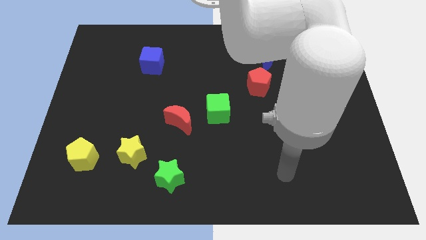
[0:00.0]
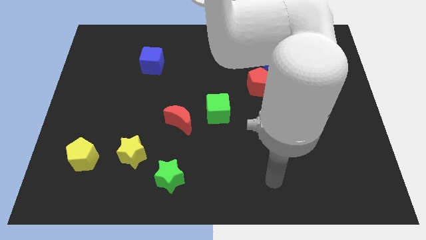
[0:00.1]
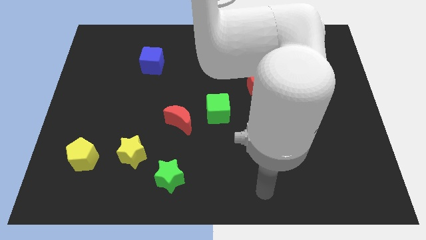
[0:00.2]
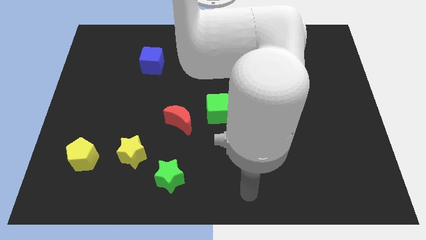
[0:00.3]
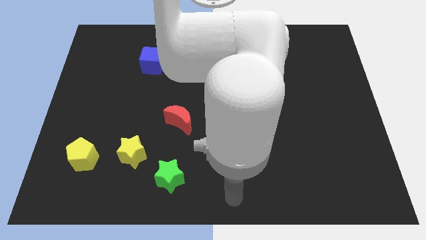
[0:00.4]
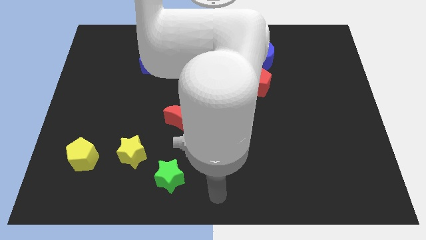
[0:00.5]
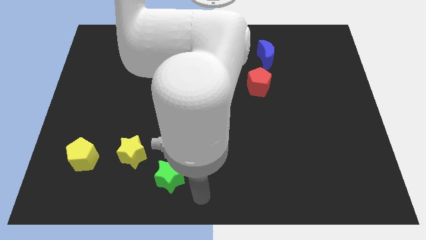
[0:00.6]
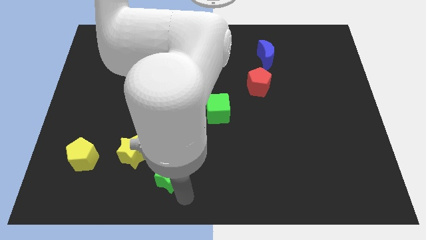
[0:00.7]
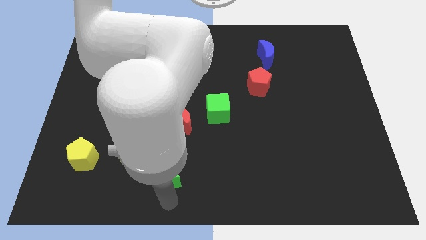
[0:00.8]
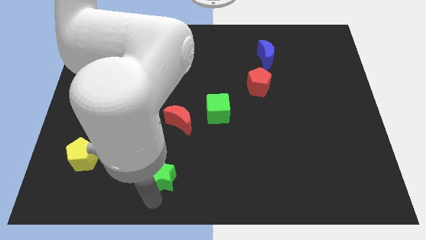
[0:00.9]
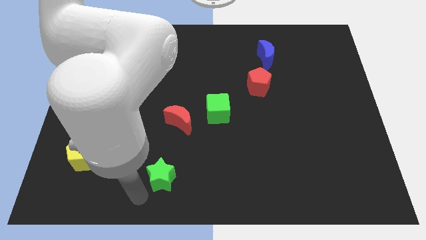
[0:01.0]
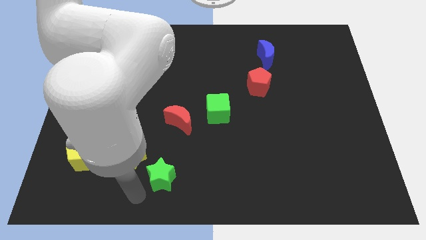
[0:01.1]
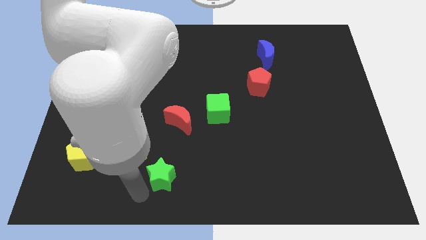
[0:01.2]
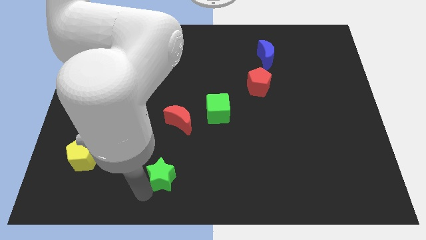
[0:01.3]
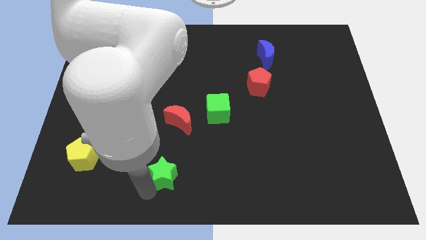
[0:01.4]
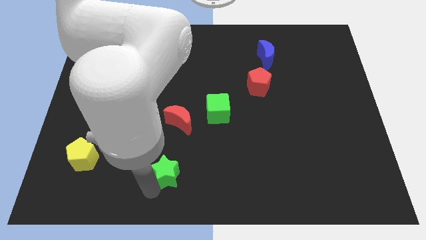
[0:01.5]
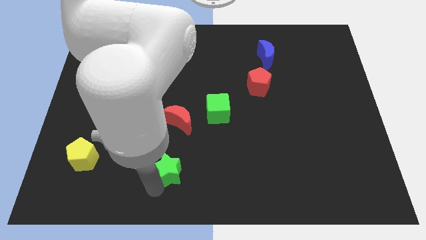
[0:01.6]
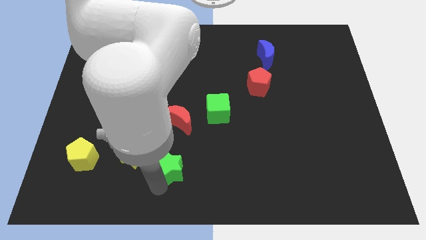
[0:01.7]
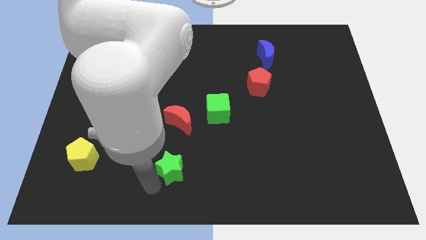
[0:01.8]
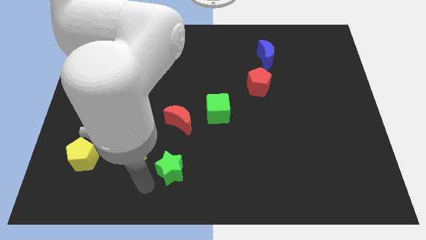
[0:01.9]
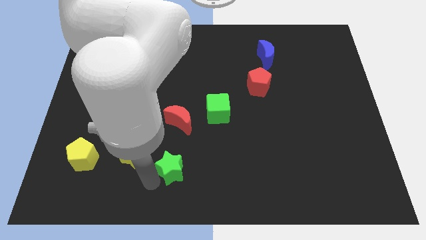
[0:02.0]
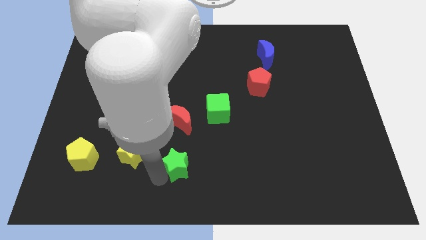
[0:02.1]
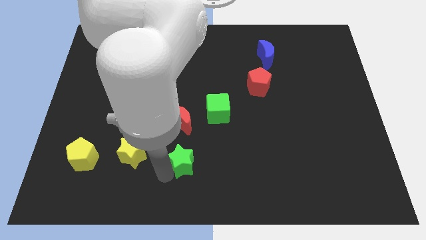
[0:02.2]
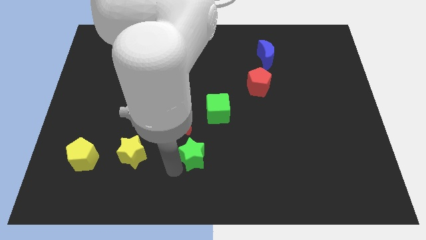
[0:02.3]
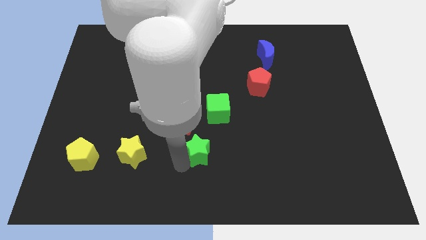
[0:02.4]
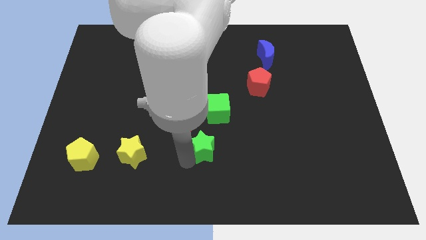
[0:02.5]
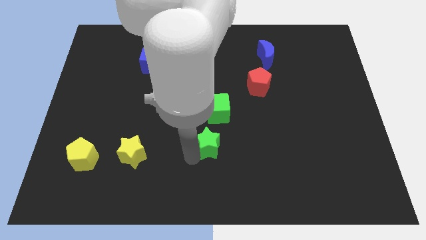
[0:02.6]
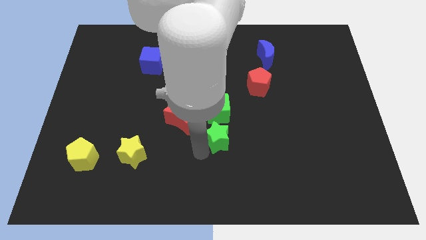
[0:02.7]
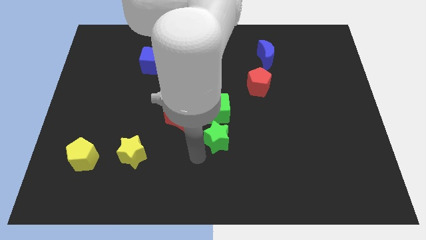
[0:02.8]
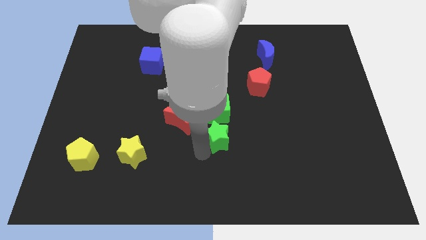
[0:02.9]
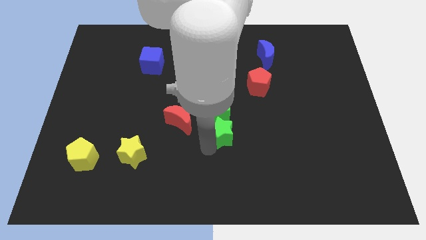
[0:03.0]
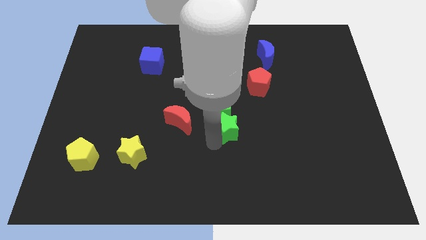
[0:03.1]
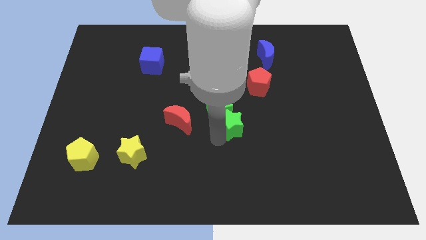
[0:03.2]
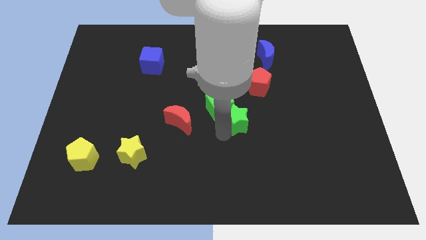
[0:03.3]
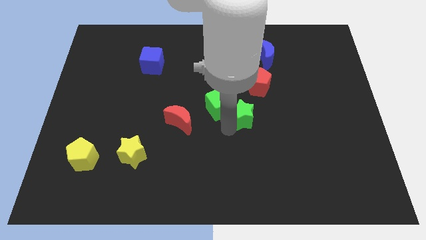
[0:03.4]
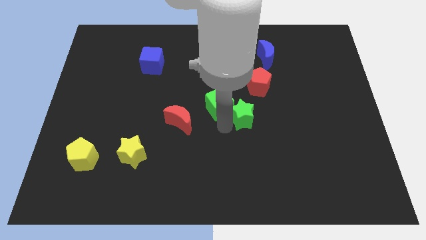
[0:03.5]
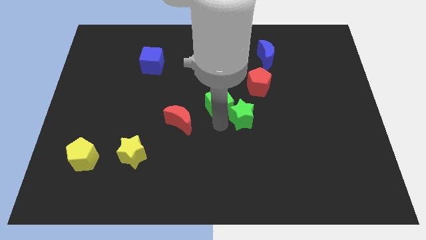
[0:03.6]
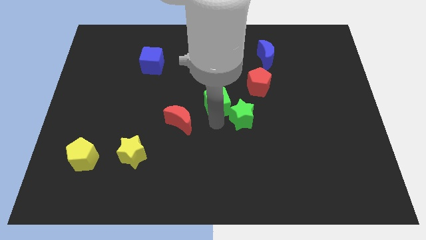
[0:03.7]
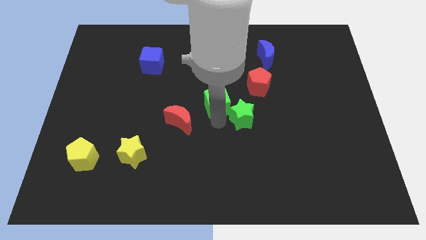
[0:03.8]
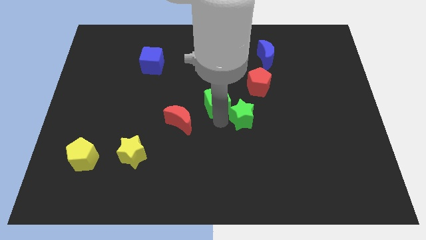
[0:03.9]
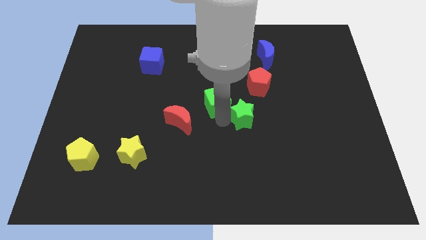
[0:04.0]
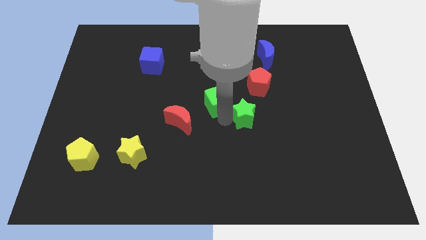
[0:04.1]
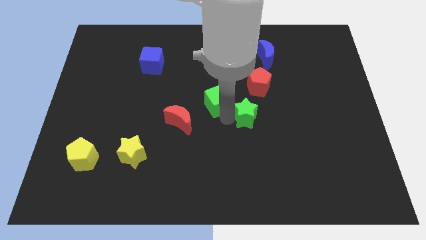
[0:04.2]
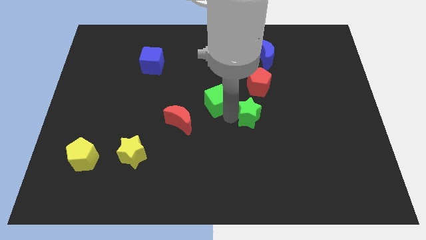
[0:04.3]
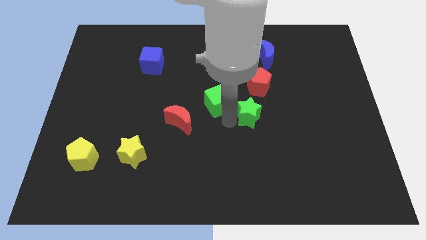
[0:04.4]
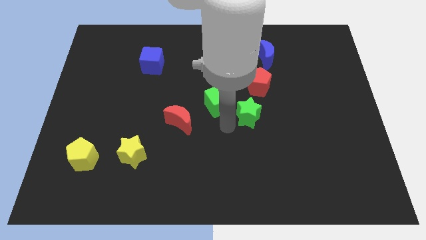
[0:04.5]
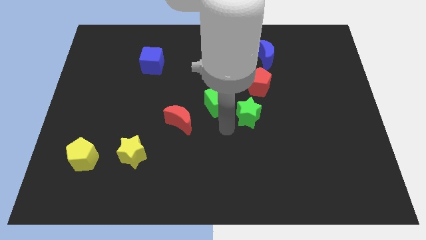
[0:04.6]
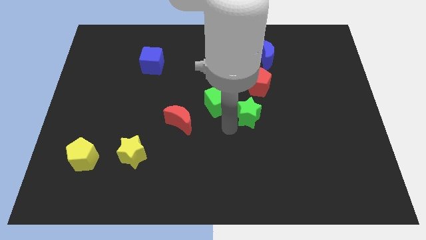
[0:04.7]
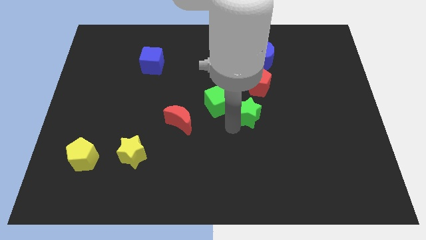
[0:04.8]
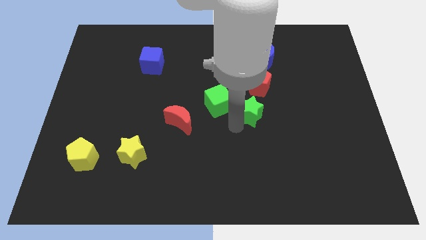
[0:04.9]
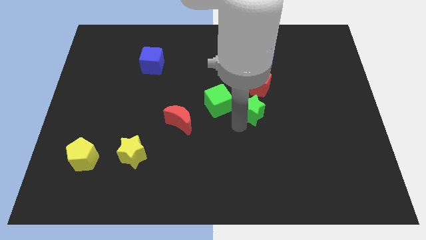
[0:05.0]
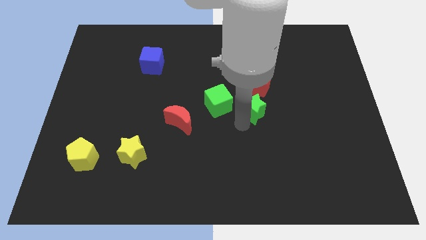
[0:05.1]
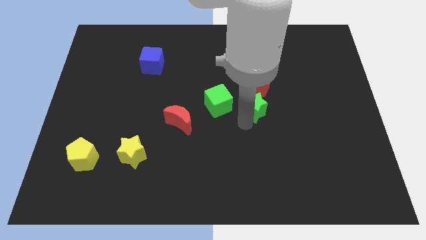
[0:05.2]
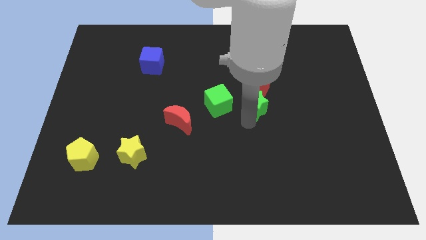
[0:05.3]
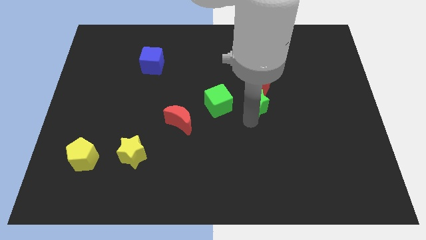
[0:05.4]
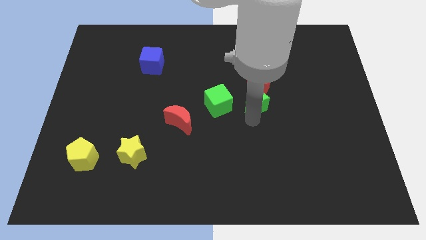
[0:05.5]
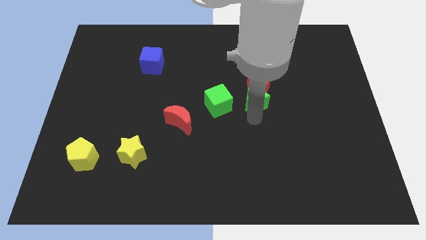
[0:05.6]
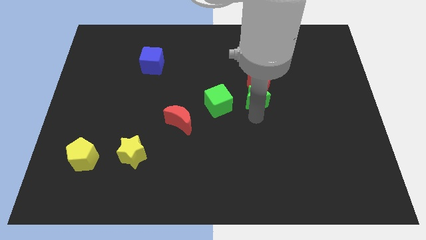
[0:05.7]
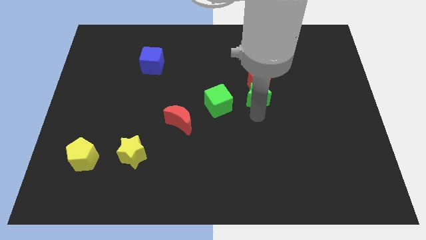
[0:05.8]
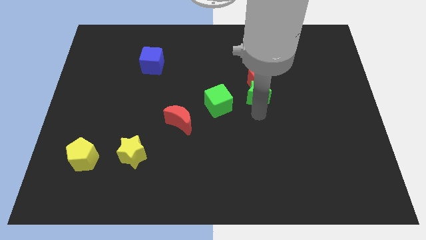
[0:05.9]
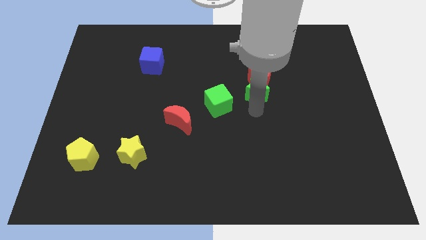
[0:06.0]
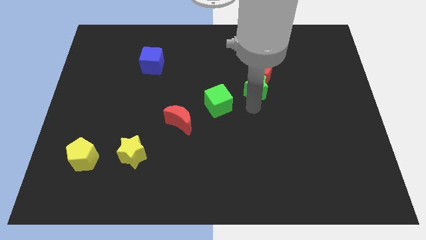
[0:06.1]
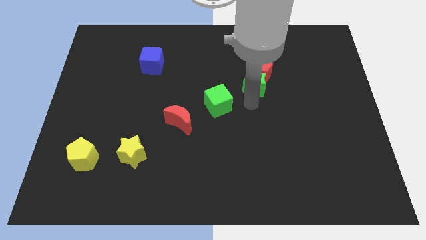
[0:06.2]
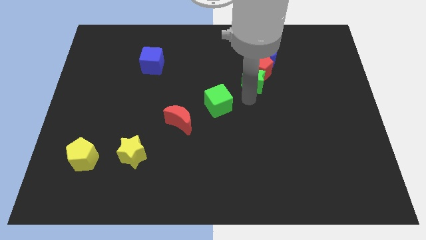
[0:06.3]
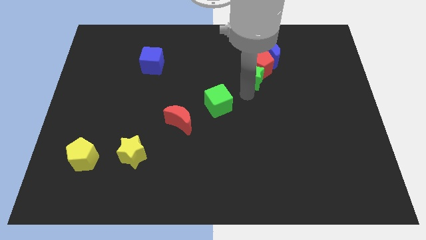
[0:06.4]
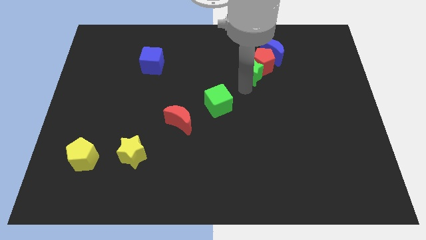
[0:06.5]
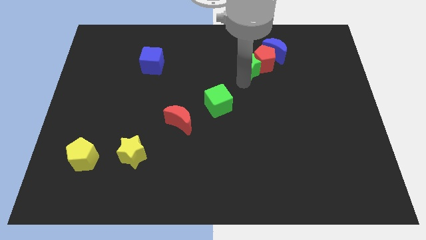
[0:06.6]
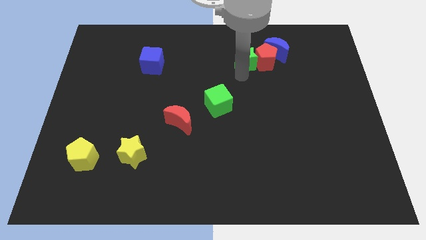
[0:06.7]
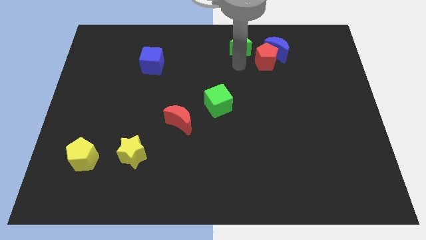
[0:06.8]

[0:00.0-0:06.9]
move the green star to the top

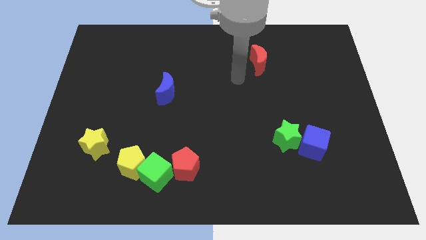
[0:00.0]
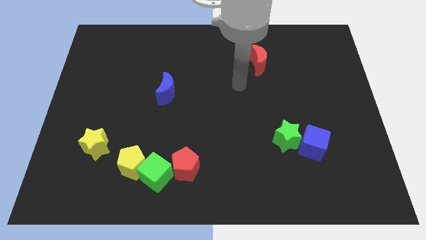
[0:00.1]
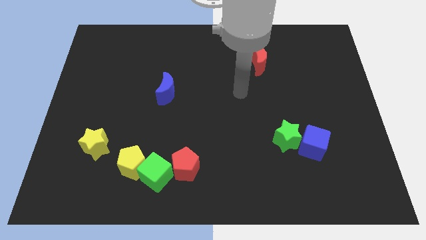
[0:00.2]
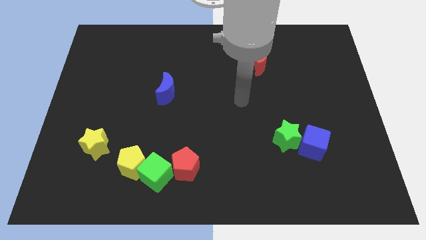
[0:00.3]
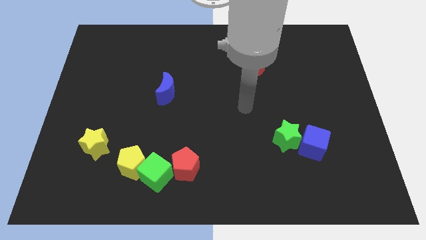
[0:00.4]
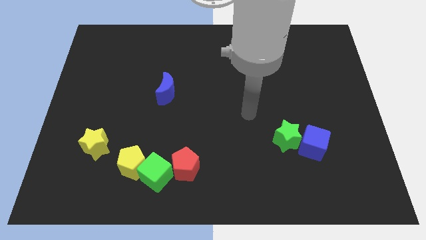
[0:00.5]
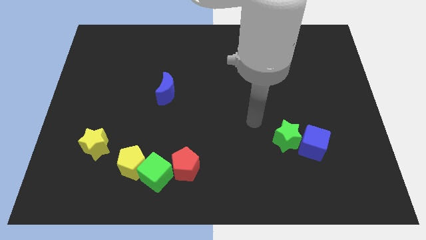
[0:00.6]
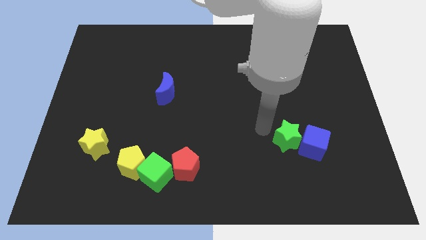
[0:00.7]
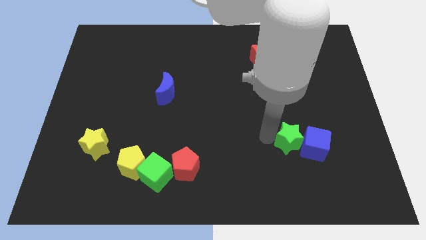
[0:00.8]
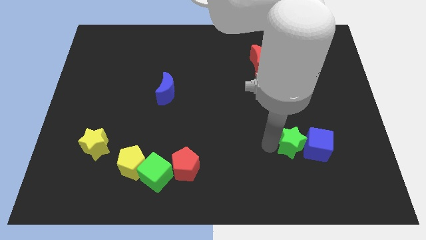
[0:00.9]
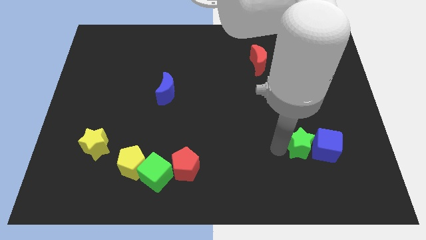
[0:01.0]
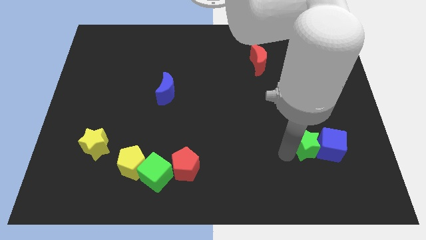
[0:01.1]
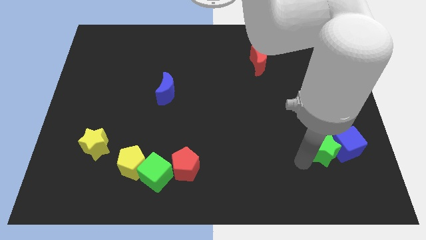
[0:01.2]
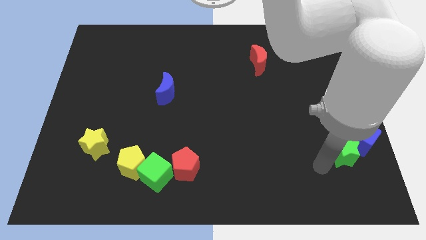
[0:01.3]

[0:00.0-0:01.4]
move the blue cube to the center right
